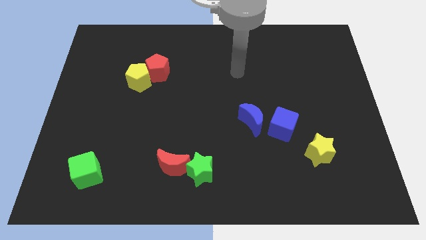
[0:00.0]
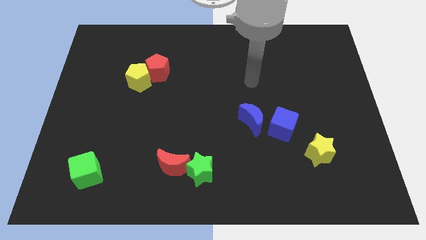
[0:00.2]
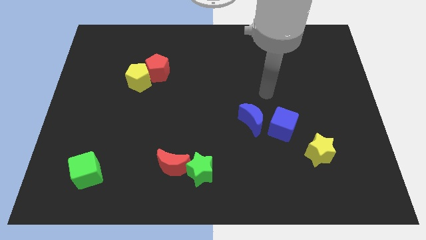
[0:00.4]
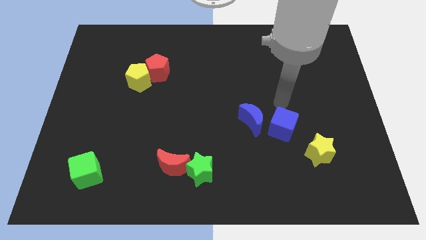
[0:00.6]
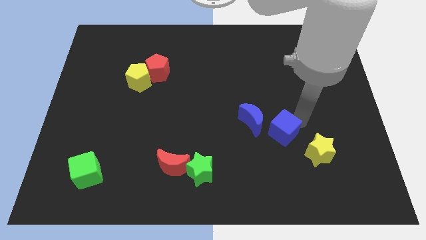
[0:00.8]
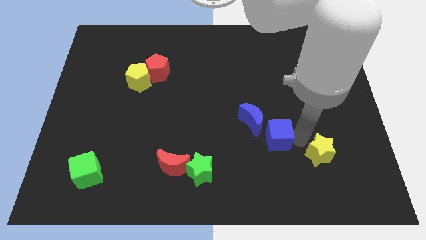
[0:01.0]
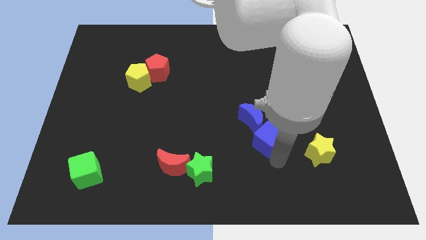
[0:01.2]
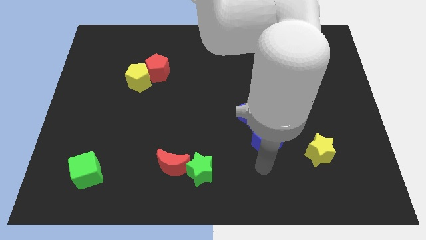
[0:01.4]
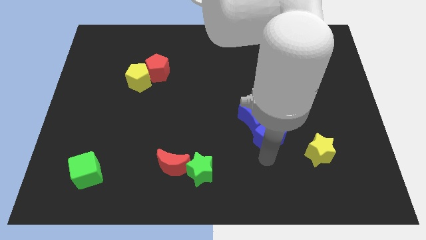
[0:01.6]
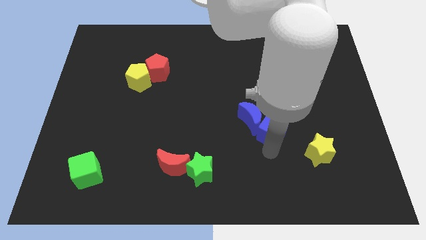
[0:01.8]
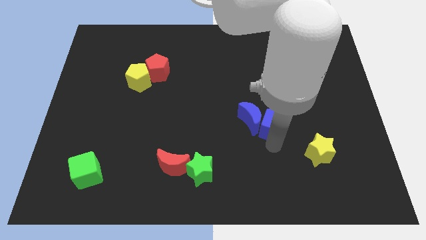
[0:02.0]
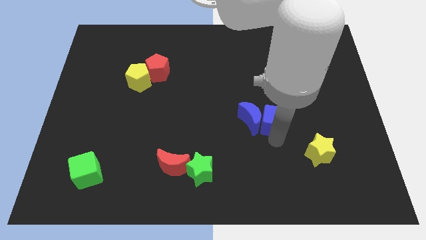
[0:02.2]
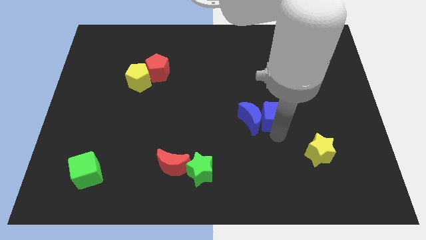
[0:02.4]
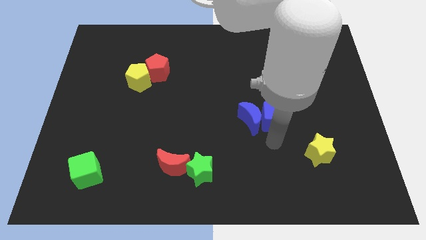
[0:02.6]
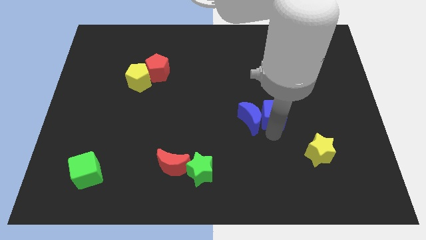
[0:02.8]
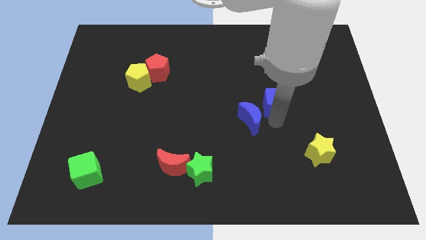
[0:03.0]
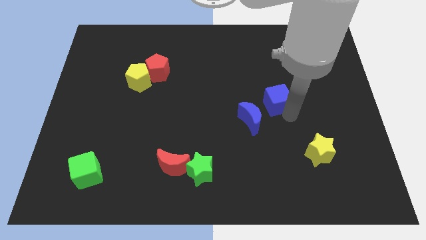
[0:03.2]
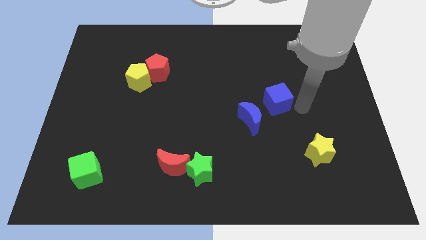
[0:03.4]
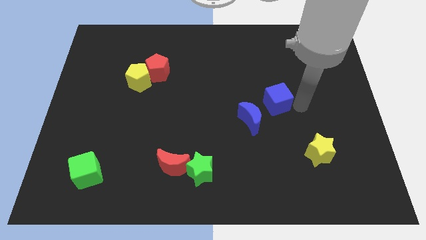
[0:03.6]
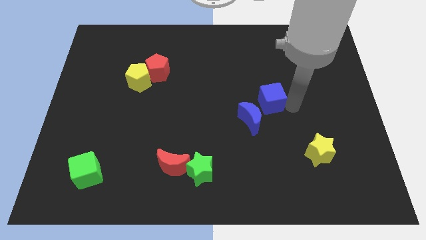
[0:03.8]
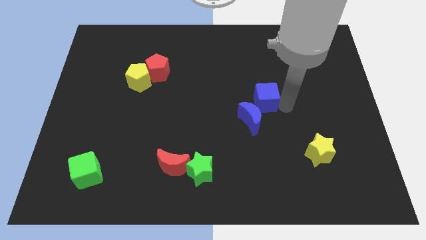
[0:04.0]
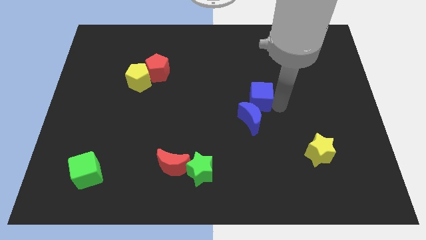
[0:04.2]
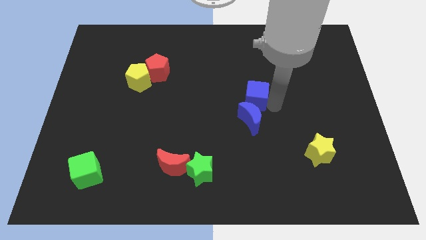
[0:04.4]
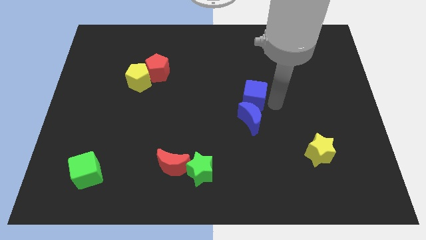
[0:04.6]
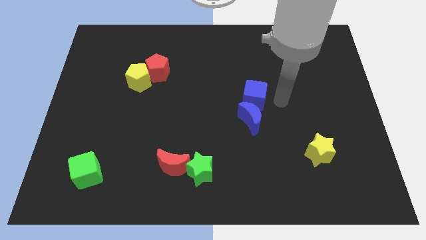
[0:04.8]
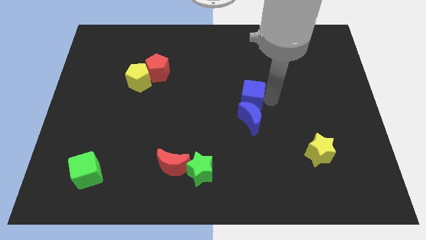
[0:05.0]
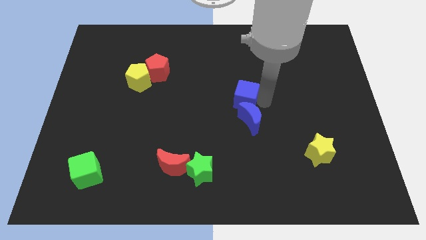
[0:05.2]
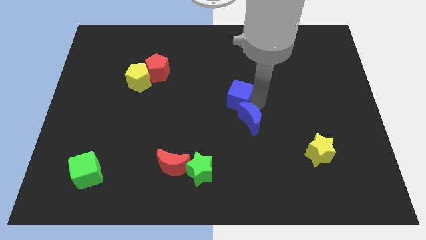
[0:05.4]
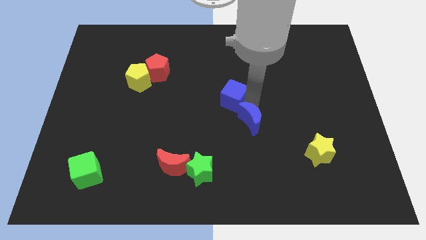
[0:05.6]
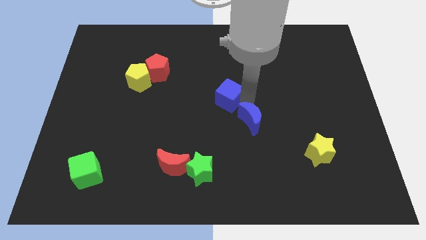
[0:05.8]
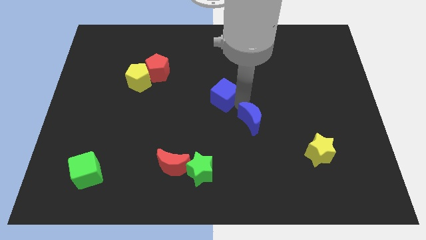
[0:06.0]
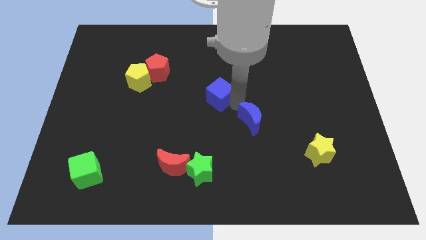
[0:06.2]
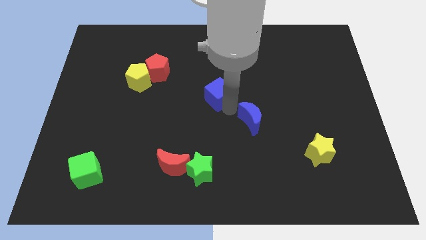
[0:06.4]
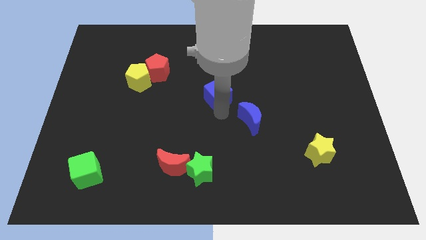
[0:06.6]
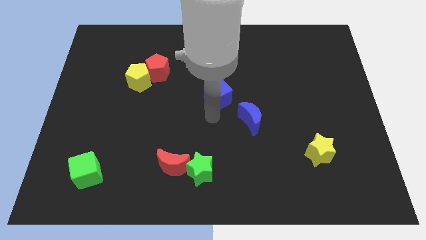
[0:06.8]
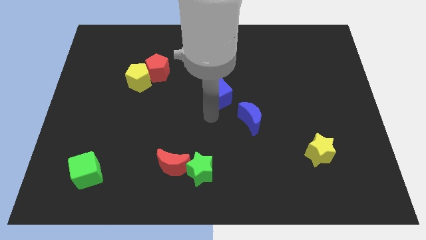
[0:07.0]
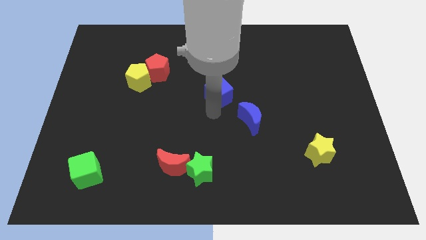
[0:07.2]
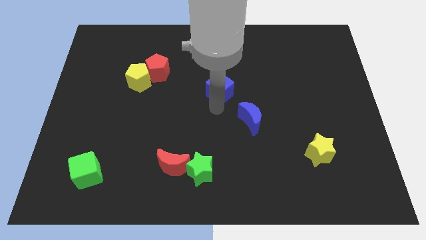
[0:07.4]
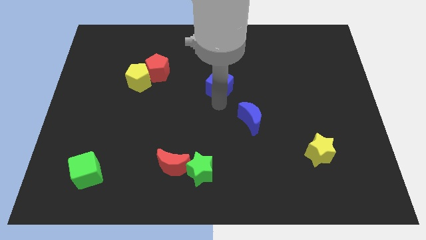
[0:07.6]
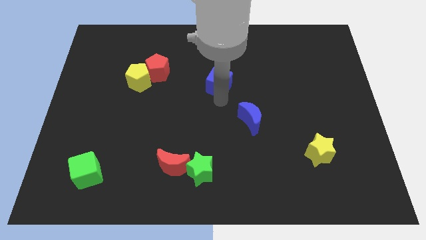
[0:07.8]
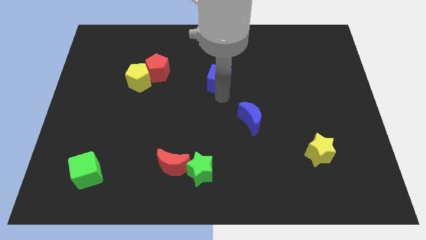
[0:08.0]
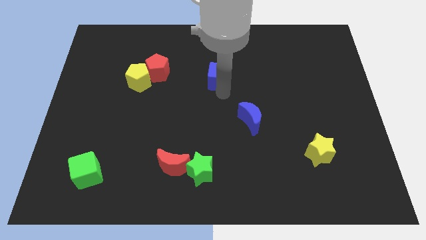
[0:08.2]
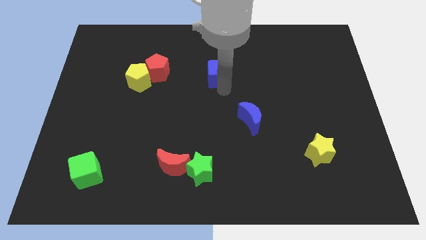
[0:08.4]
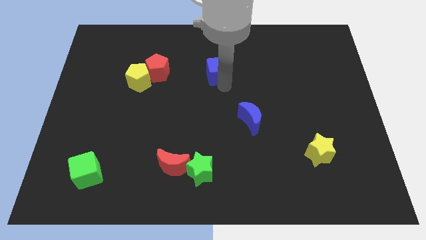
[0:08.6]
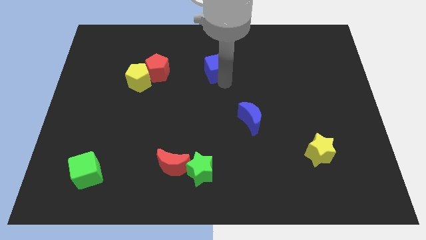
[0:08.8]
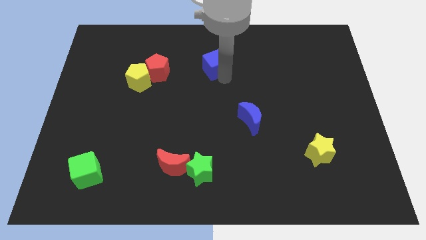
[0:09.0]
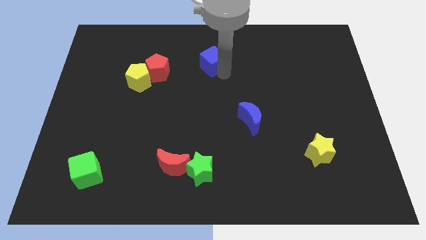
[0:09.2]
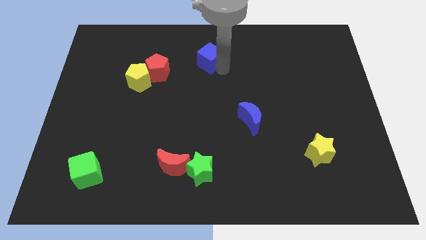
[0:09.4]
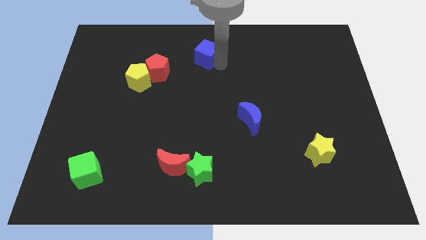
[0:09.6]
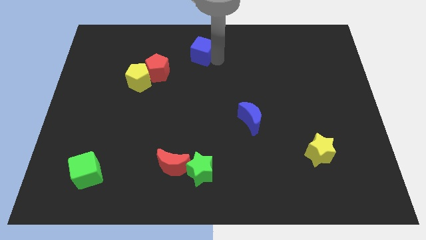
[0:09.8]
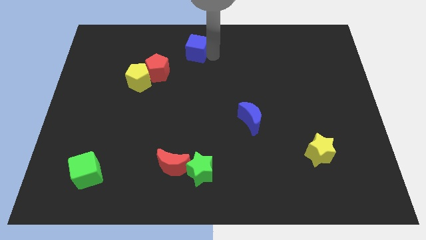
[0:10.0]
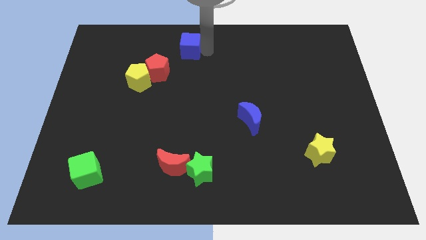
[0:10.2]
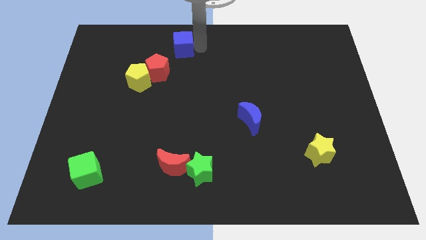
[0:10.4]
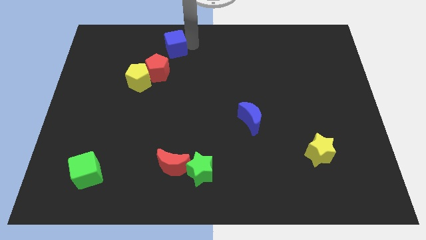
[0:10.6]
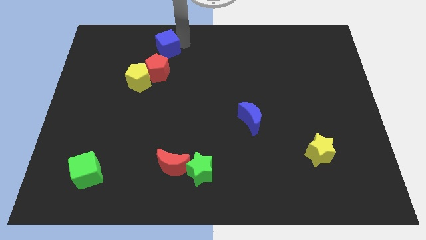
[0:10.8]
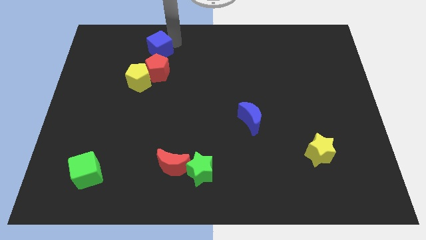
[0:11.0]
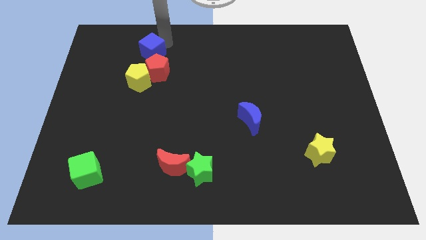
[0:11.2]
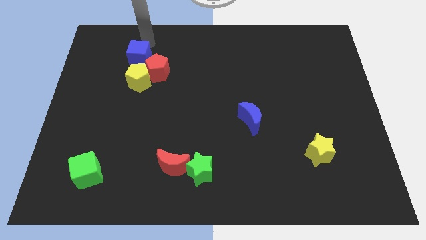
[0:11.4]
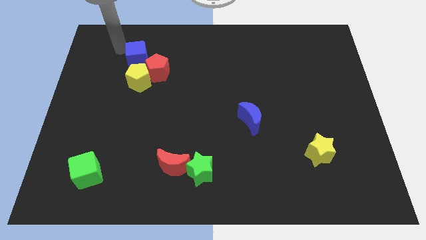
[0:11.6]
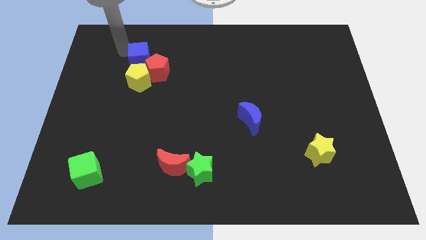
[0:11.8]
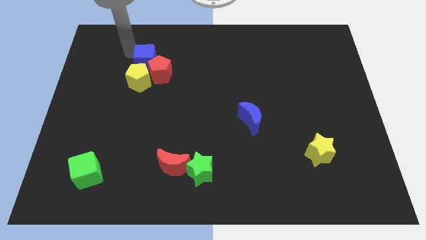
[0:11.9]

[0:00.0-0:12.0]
slide the blue cube next to the red pentagon

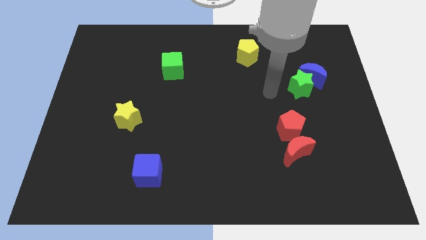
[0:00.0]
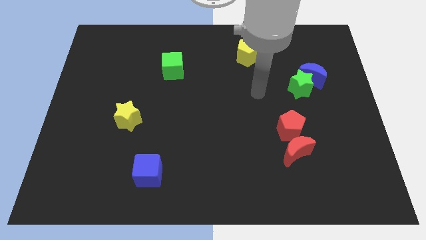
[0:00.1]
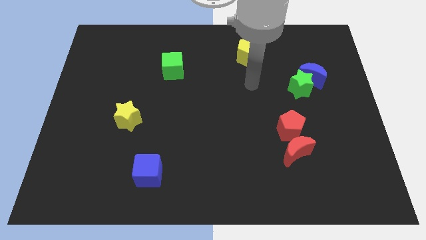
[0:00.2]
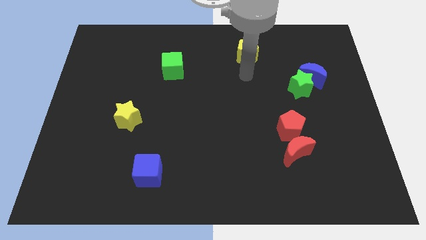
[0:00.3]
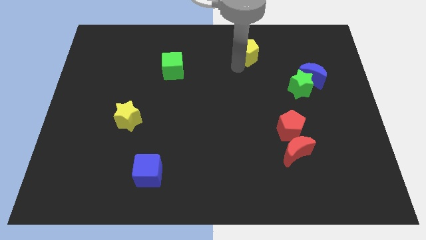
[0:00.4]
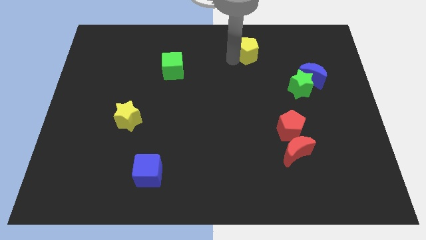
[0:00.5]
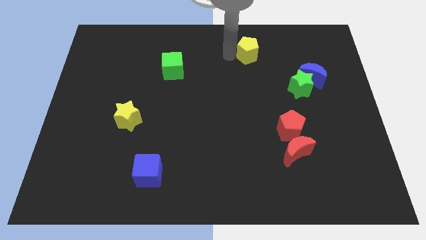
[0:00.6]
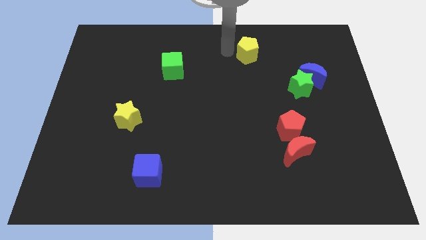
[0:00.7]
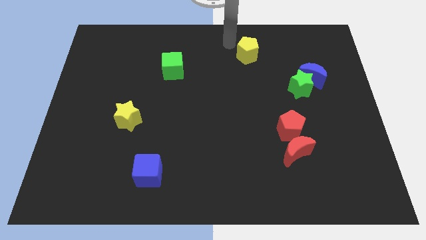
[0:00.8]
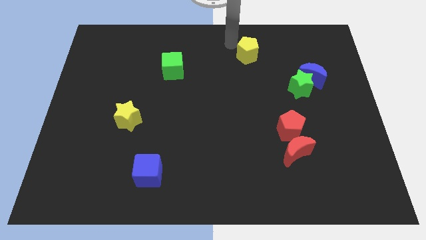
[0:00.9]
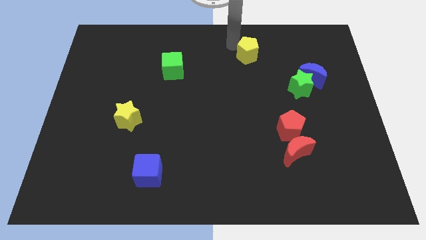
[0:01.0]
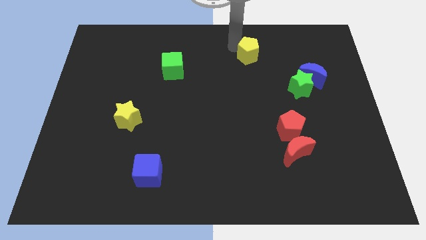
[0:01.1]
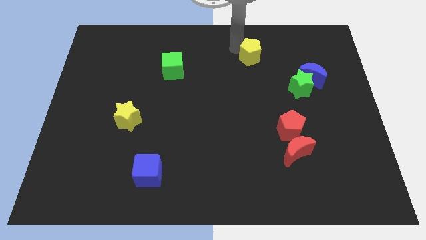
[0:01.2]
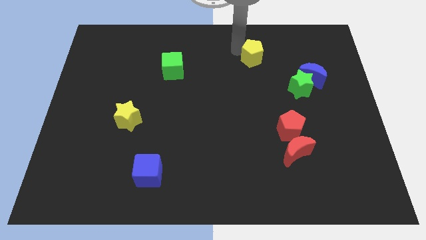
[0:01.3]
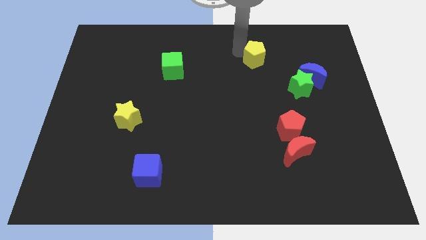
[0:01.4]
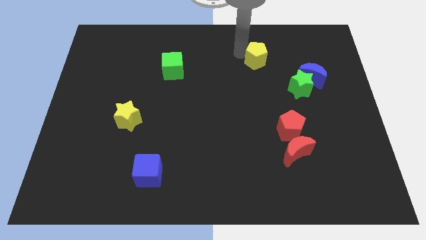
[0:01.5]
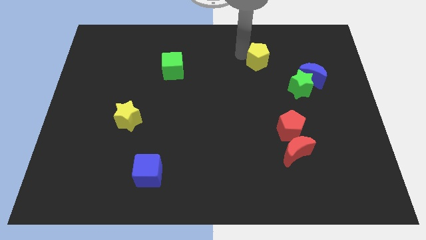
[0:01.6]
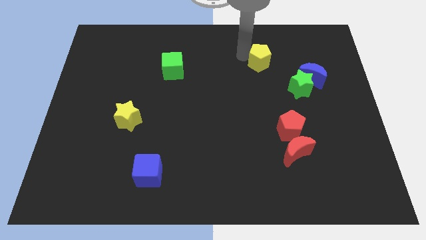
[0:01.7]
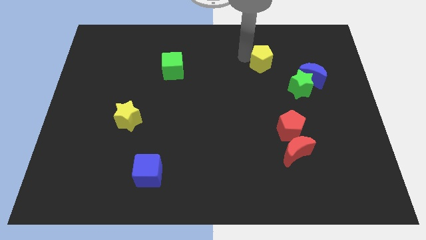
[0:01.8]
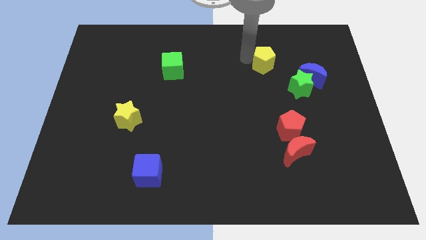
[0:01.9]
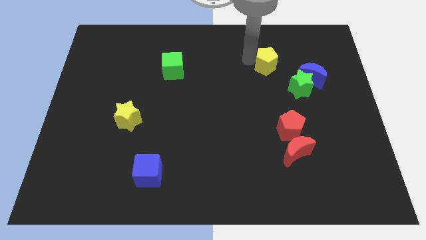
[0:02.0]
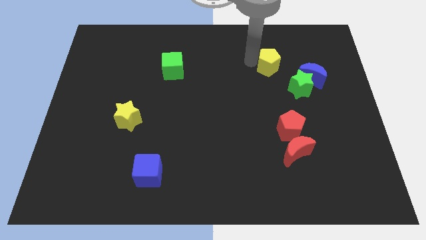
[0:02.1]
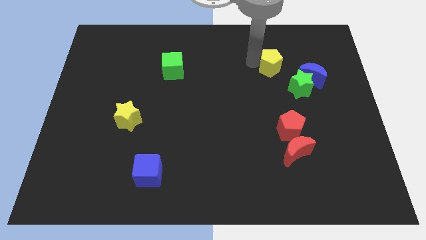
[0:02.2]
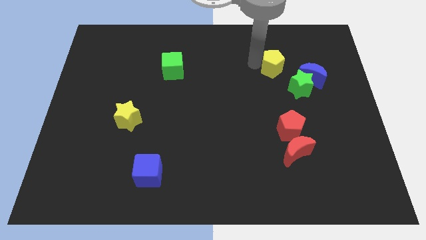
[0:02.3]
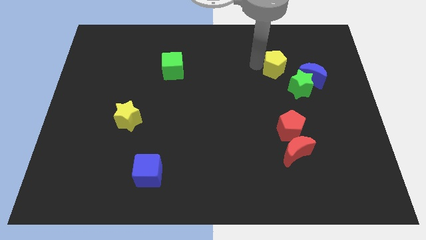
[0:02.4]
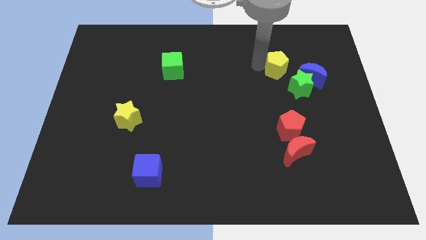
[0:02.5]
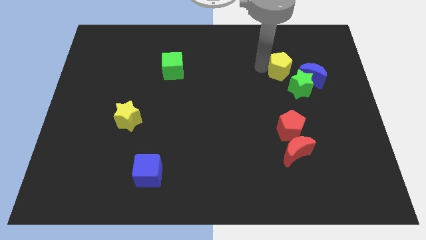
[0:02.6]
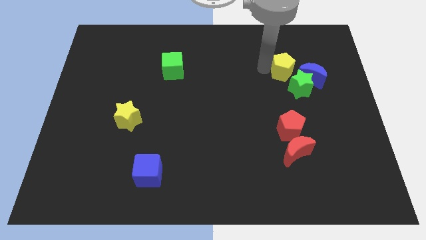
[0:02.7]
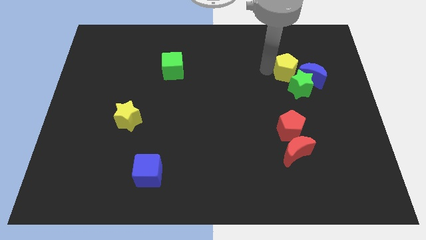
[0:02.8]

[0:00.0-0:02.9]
push the yellow pentagon close to the green star
